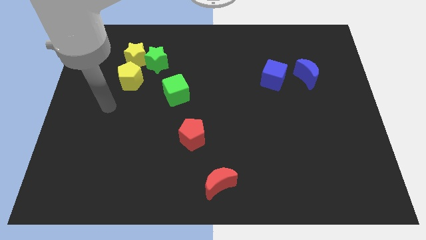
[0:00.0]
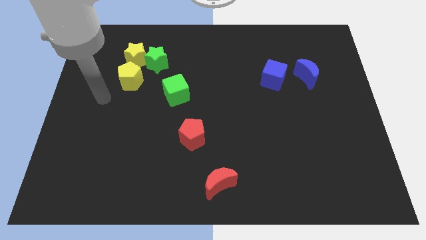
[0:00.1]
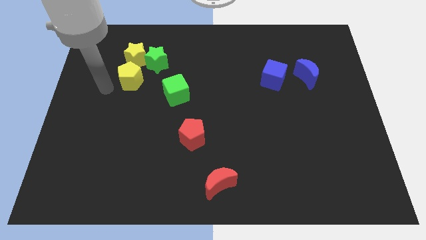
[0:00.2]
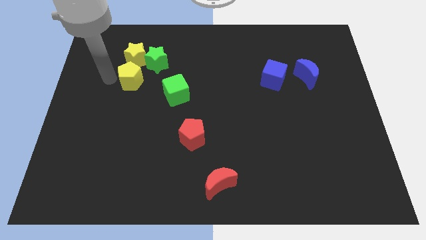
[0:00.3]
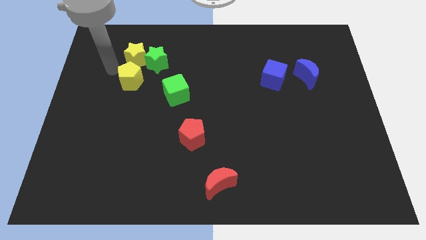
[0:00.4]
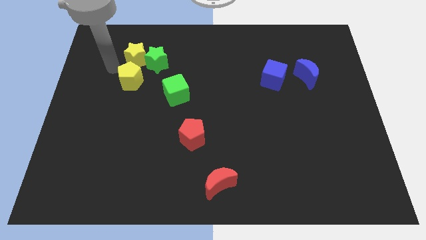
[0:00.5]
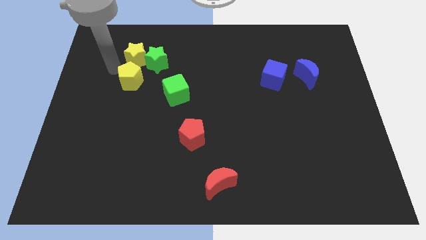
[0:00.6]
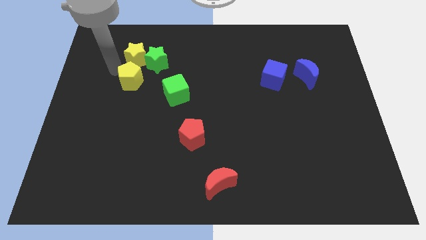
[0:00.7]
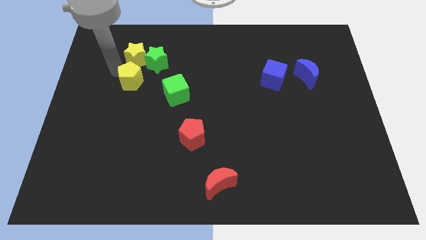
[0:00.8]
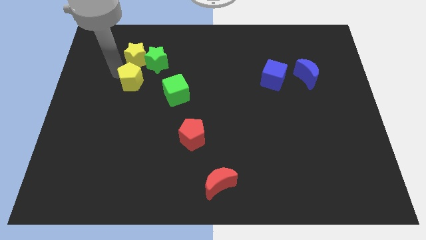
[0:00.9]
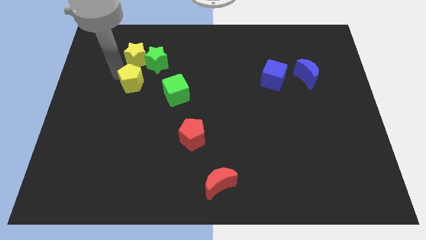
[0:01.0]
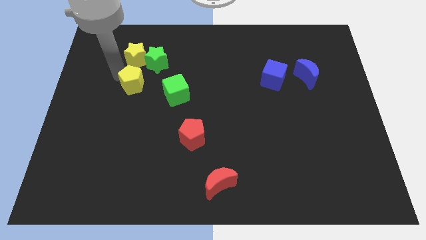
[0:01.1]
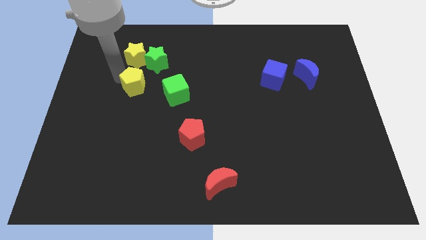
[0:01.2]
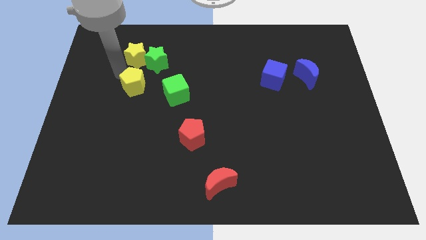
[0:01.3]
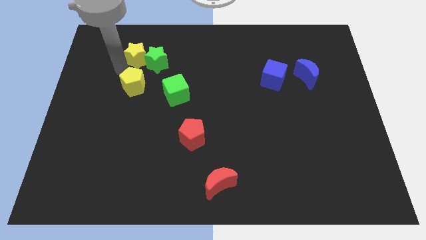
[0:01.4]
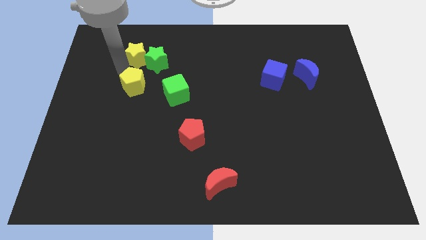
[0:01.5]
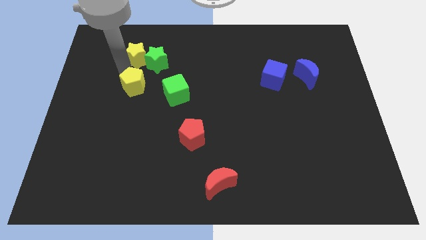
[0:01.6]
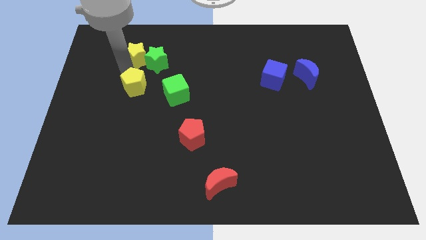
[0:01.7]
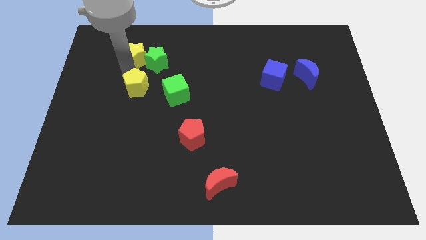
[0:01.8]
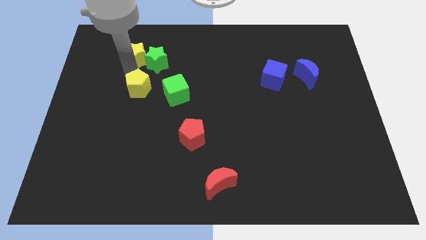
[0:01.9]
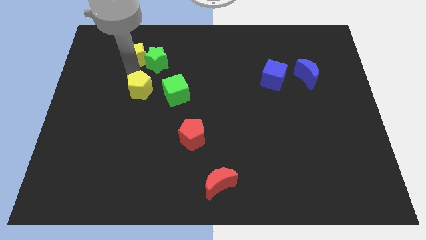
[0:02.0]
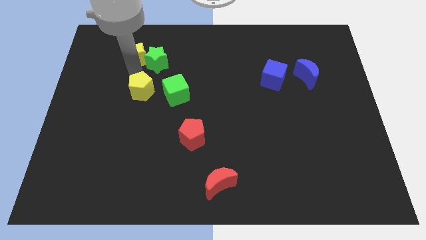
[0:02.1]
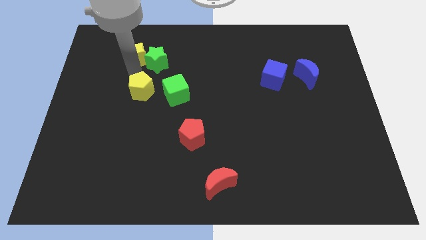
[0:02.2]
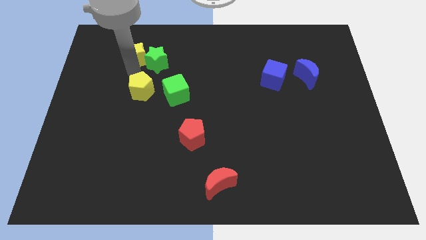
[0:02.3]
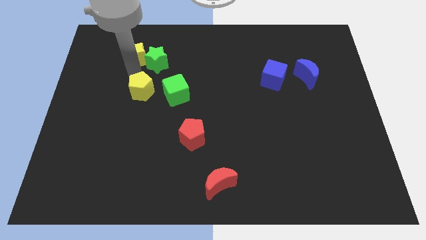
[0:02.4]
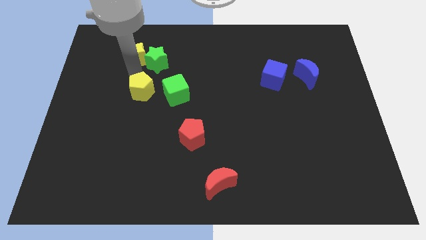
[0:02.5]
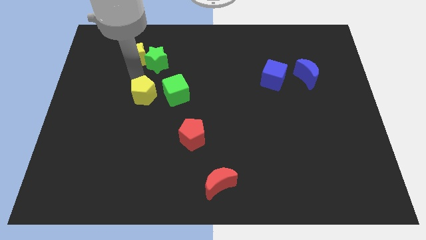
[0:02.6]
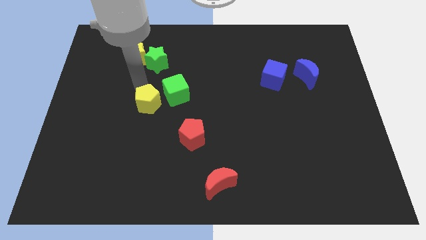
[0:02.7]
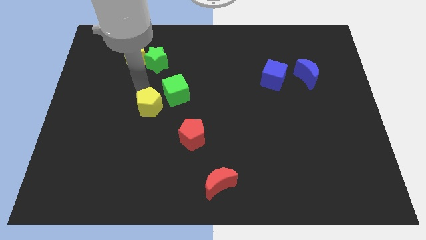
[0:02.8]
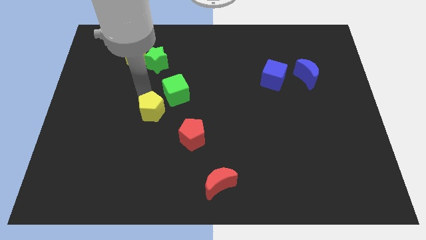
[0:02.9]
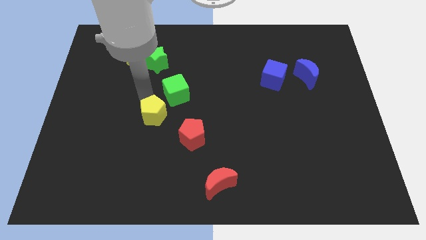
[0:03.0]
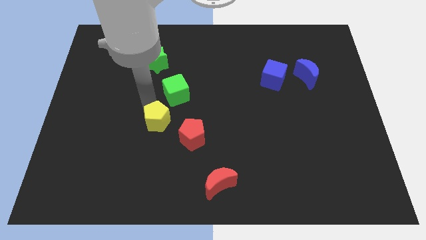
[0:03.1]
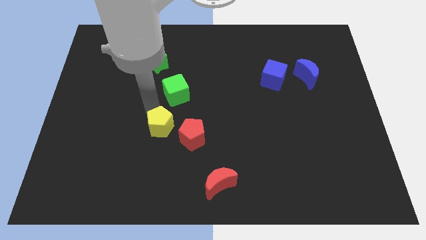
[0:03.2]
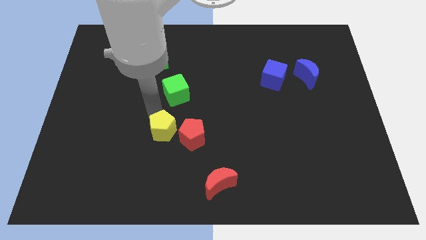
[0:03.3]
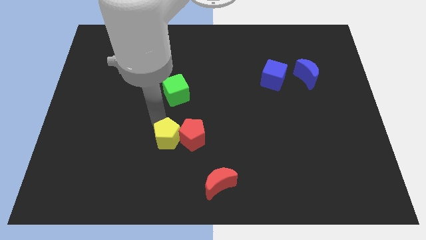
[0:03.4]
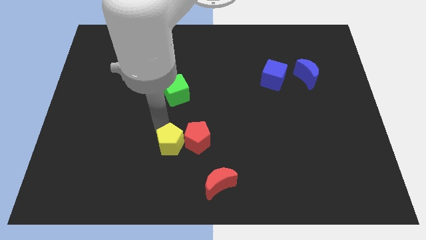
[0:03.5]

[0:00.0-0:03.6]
move the yellow pentagon downwards and right

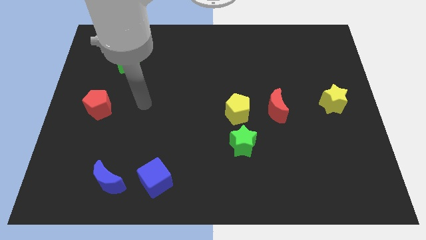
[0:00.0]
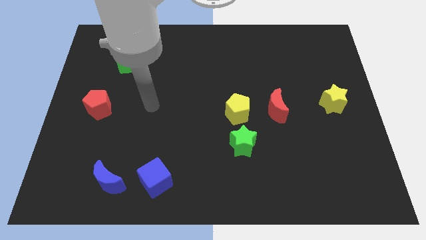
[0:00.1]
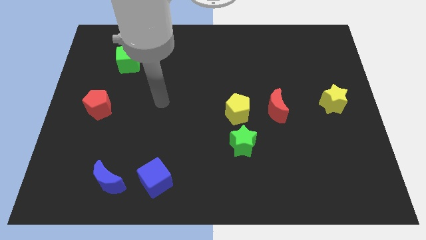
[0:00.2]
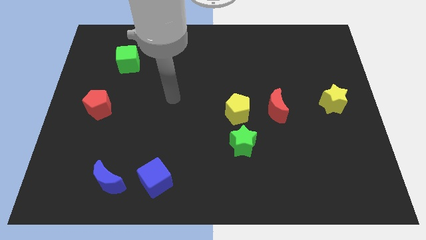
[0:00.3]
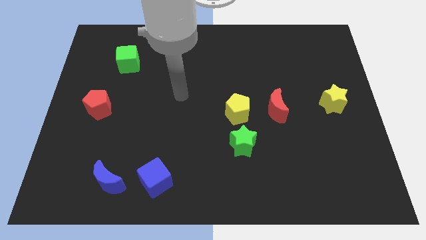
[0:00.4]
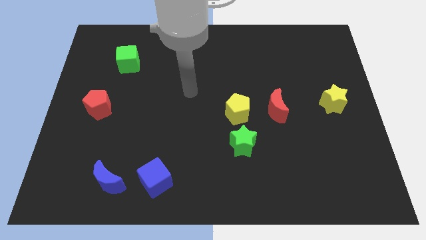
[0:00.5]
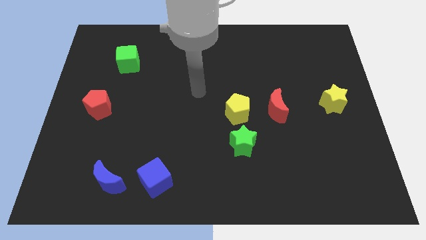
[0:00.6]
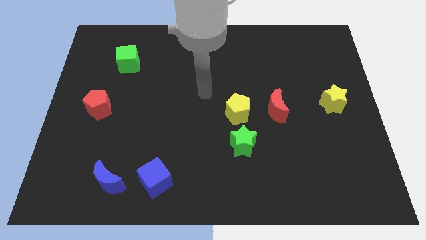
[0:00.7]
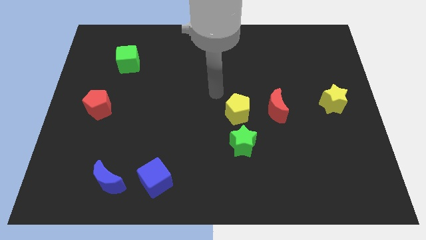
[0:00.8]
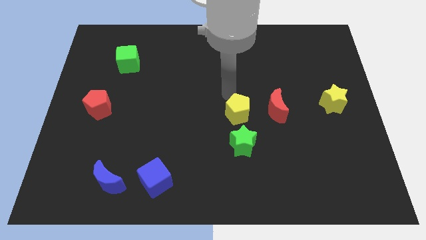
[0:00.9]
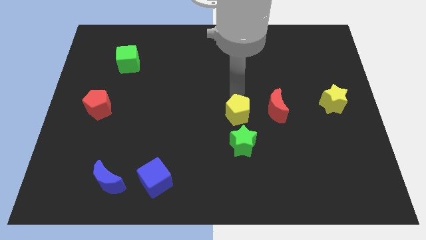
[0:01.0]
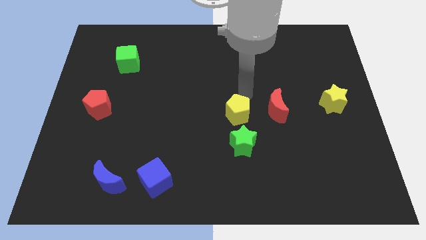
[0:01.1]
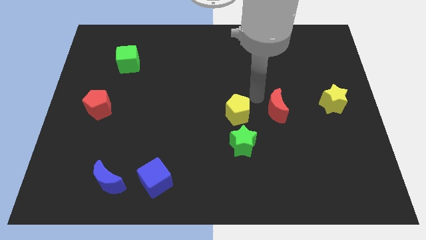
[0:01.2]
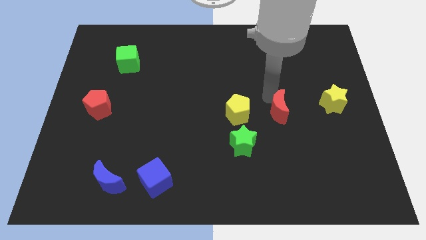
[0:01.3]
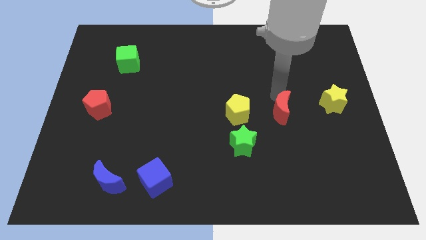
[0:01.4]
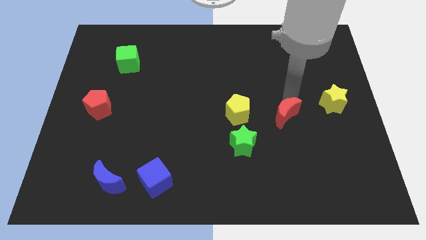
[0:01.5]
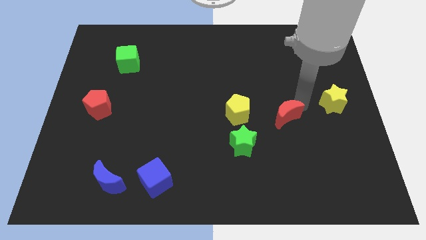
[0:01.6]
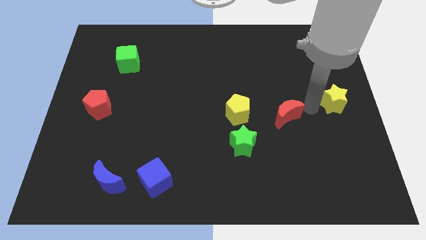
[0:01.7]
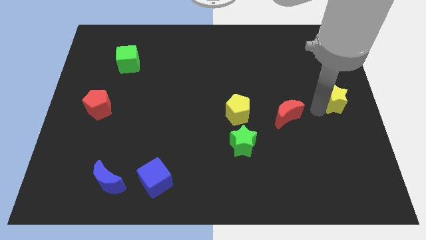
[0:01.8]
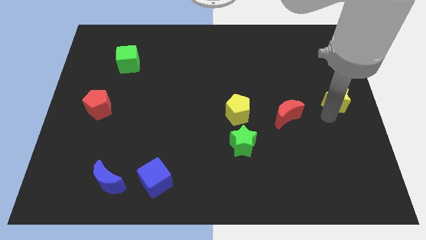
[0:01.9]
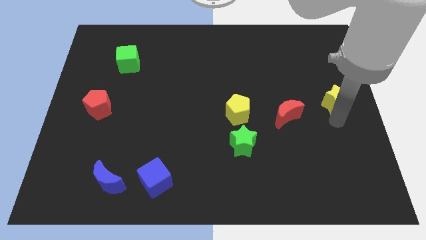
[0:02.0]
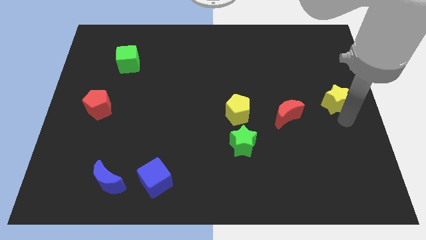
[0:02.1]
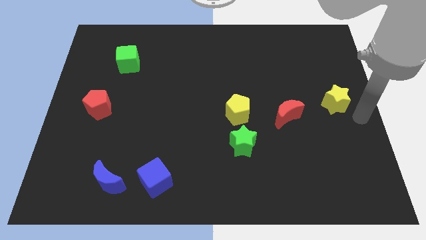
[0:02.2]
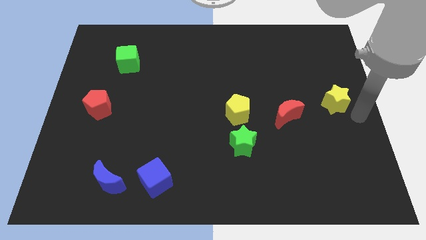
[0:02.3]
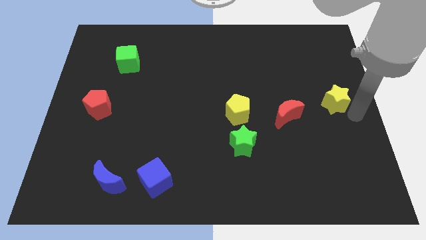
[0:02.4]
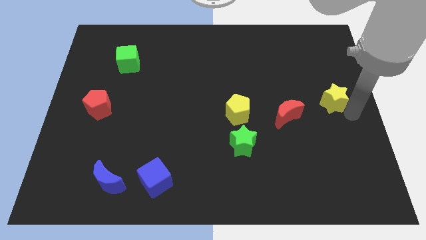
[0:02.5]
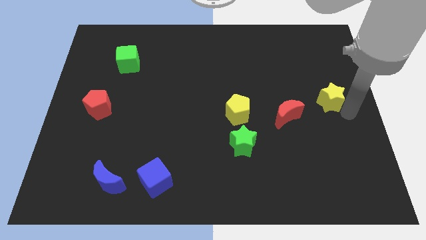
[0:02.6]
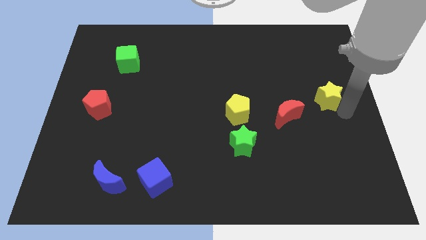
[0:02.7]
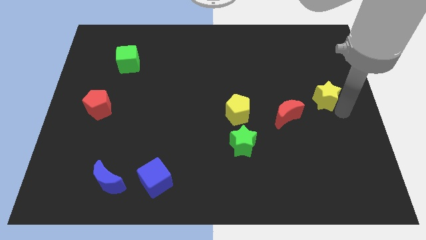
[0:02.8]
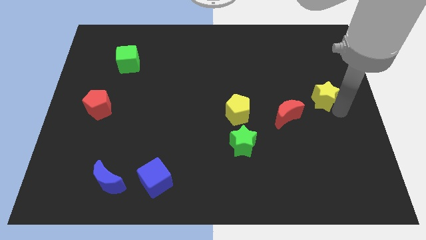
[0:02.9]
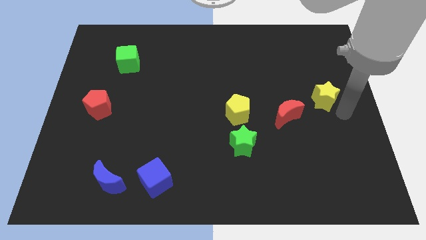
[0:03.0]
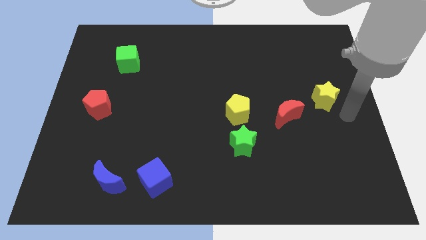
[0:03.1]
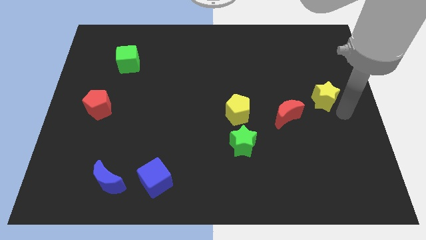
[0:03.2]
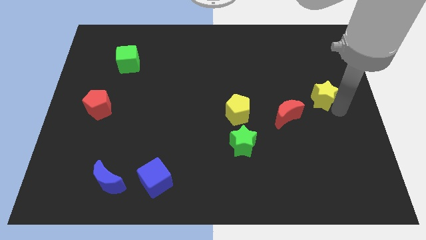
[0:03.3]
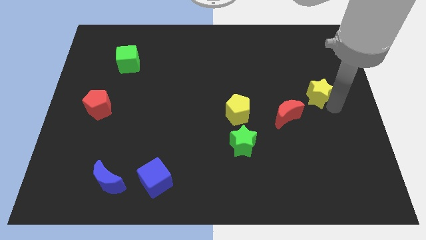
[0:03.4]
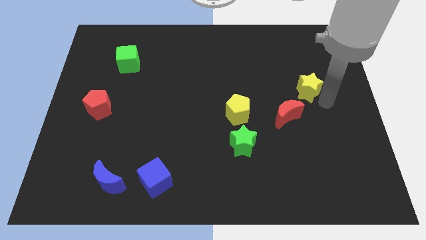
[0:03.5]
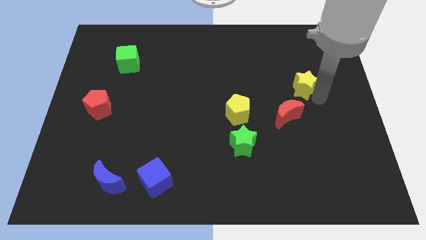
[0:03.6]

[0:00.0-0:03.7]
slide the yellow star a little bit up and to the left diagonally

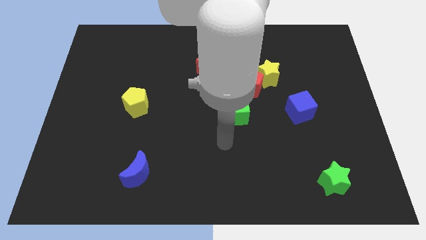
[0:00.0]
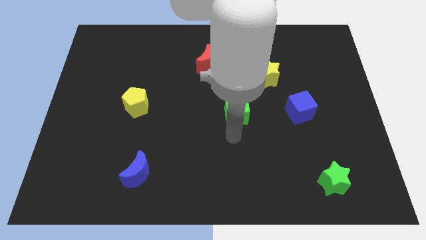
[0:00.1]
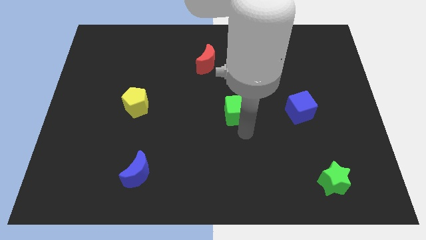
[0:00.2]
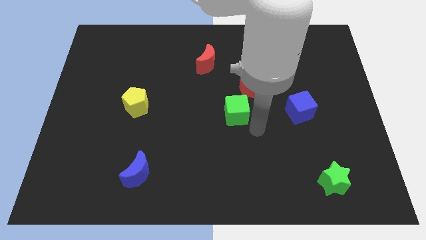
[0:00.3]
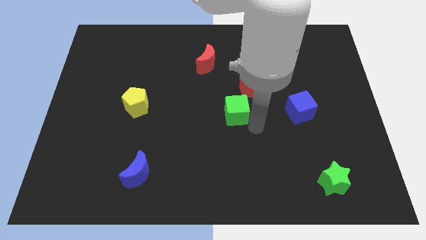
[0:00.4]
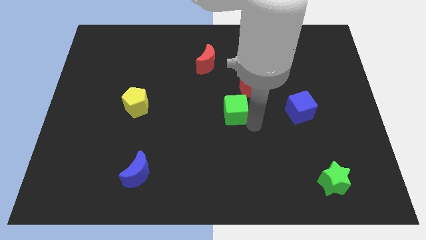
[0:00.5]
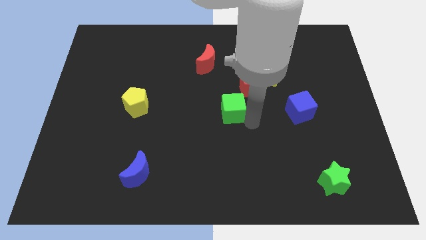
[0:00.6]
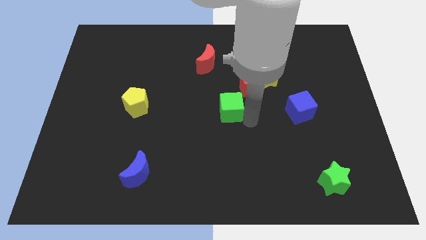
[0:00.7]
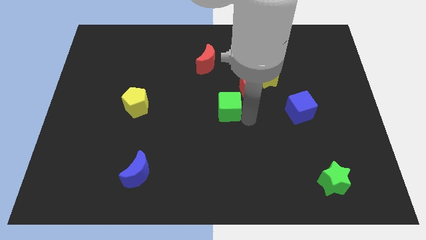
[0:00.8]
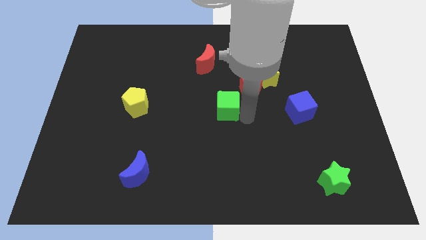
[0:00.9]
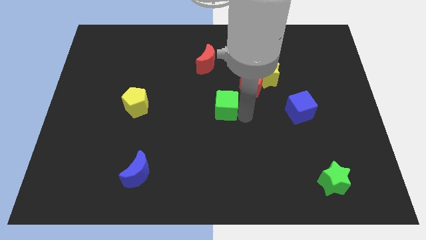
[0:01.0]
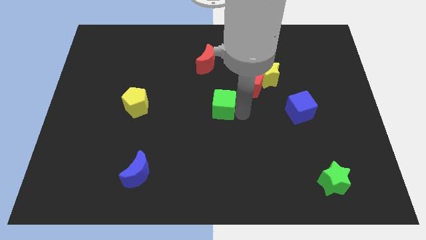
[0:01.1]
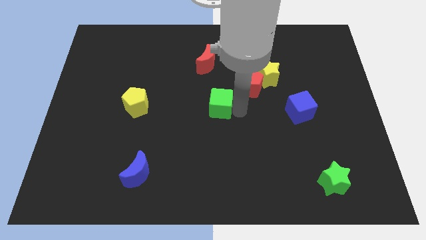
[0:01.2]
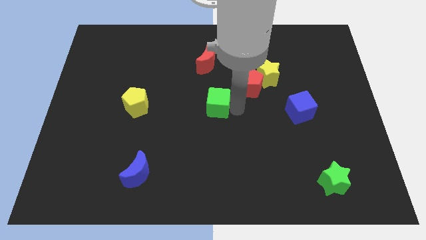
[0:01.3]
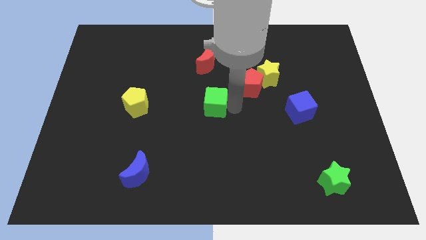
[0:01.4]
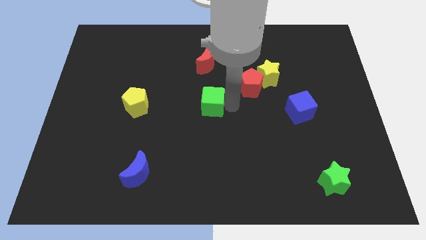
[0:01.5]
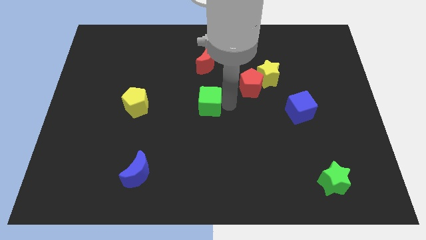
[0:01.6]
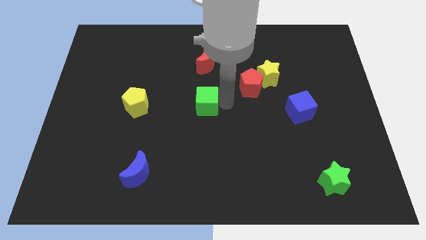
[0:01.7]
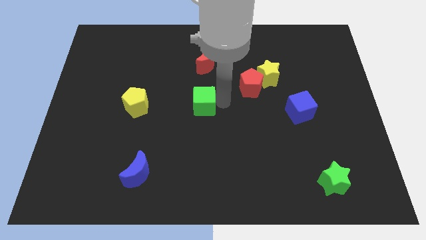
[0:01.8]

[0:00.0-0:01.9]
push the green cube upwards and left a bit
